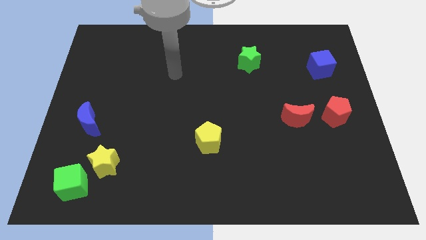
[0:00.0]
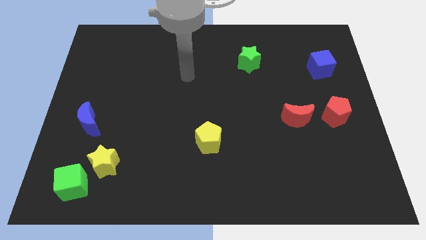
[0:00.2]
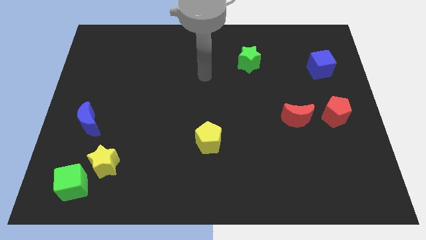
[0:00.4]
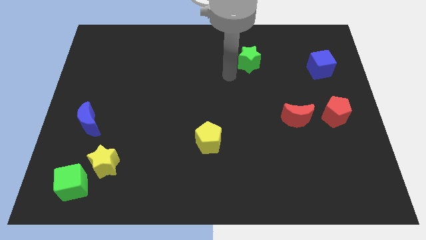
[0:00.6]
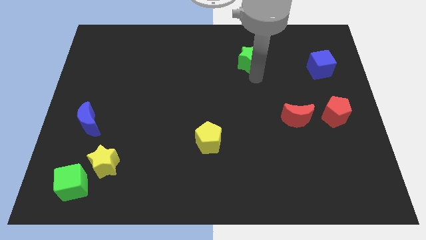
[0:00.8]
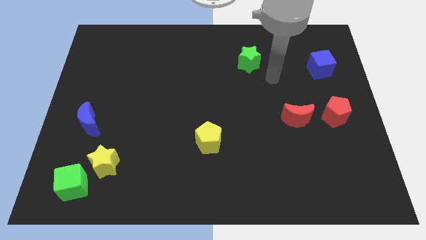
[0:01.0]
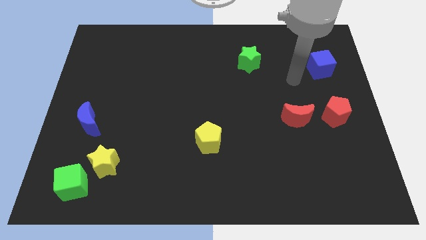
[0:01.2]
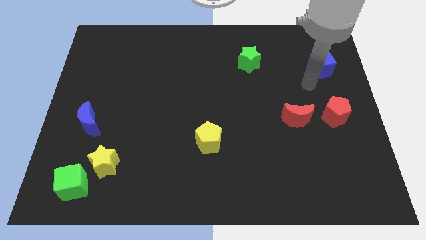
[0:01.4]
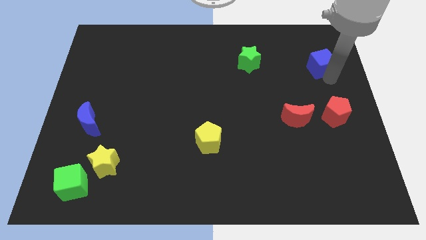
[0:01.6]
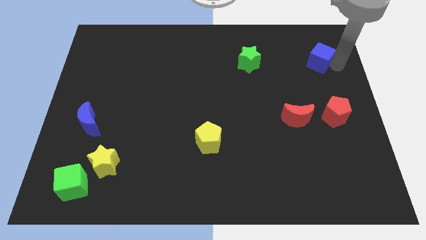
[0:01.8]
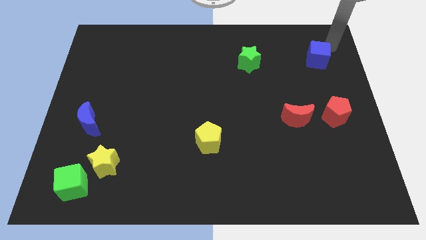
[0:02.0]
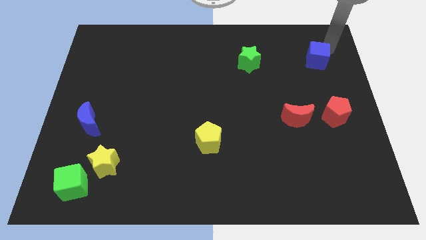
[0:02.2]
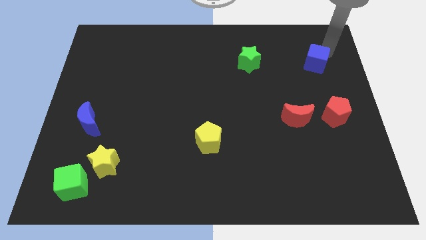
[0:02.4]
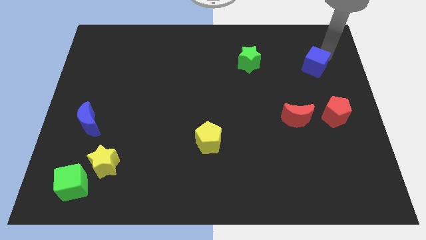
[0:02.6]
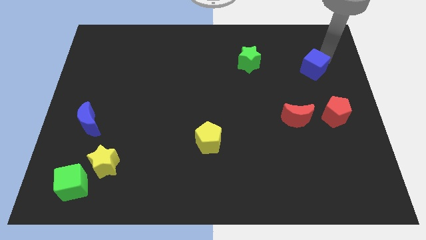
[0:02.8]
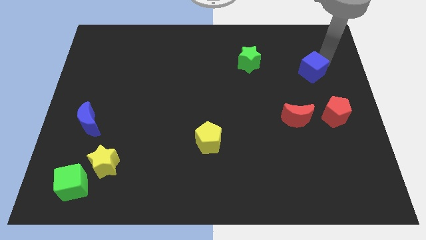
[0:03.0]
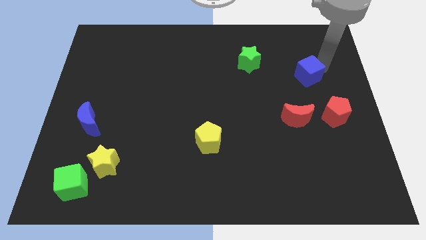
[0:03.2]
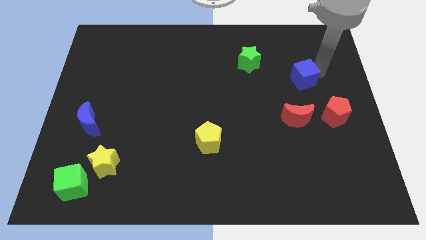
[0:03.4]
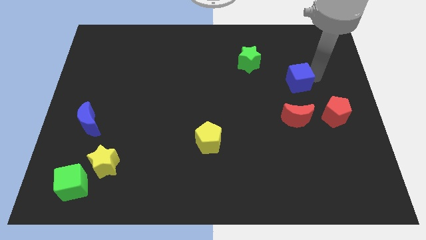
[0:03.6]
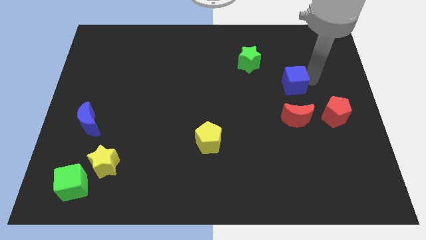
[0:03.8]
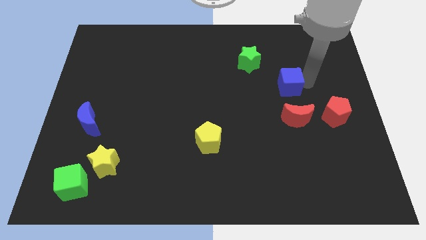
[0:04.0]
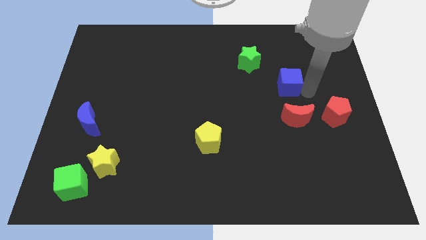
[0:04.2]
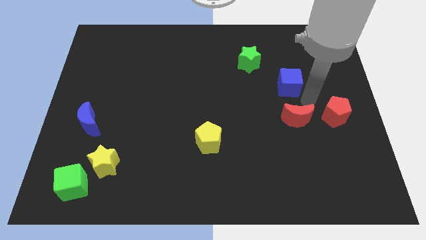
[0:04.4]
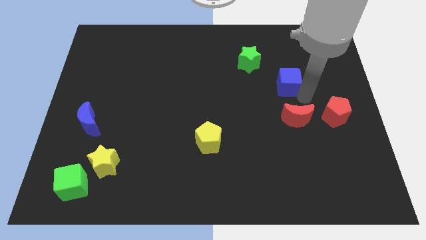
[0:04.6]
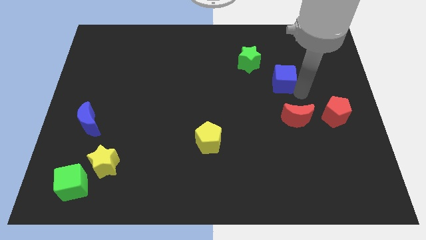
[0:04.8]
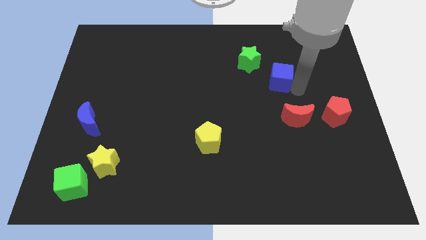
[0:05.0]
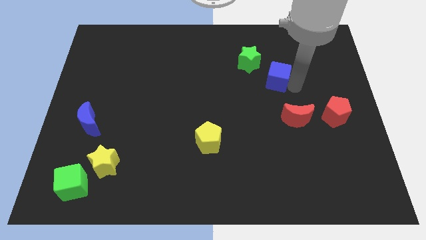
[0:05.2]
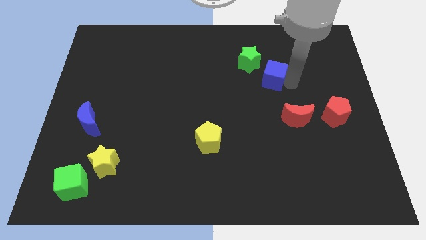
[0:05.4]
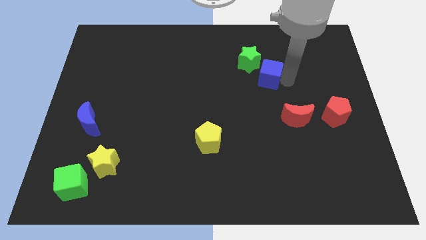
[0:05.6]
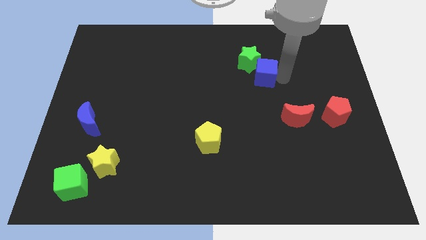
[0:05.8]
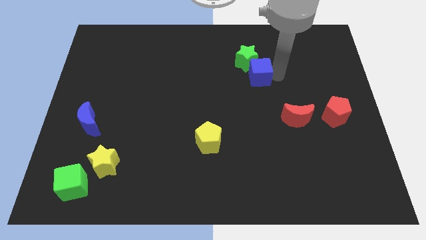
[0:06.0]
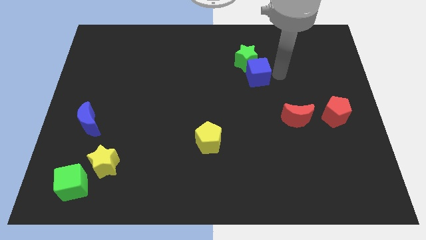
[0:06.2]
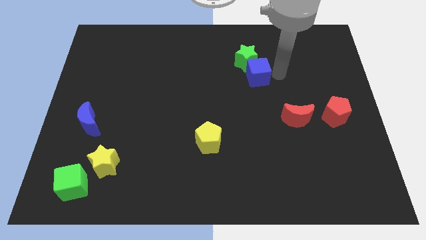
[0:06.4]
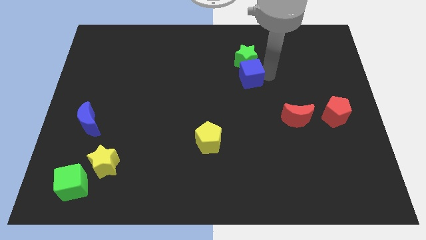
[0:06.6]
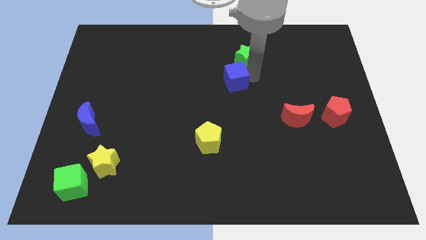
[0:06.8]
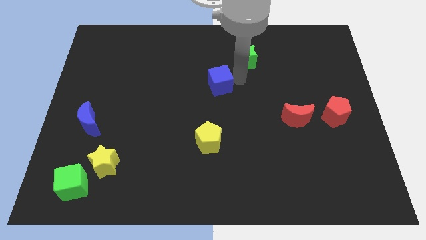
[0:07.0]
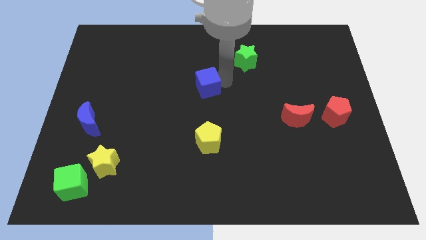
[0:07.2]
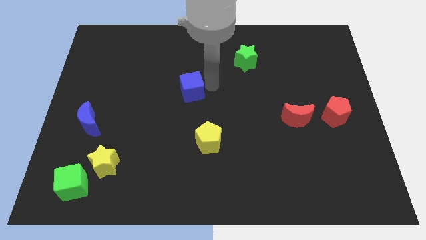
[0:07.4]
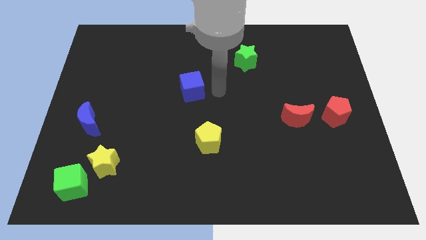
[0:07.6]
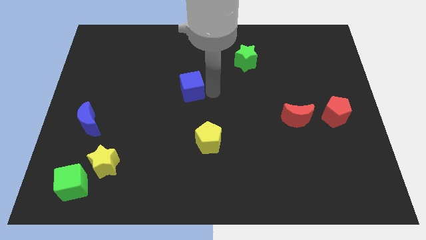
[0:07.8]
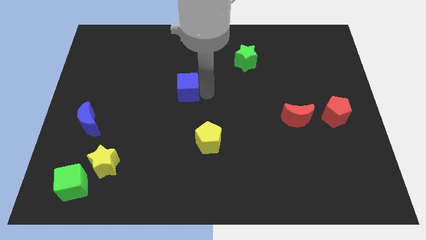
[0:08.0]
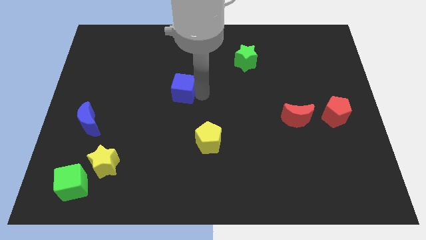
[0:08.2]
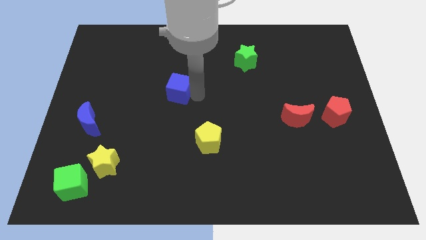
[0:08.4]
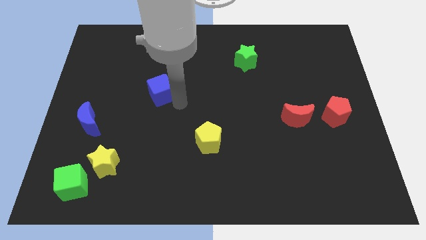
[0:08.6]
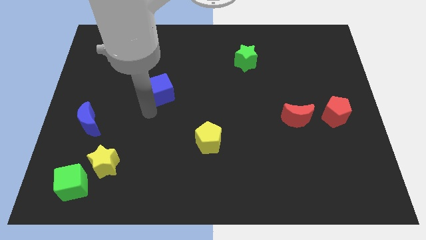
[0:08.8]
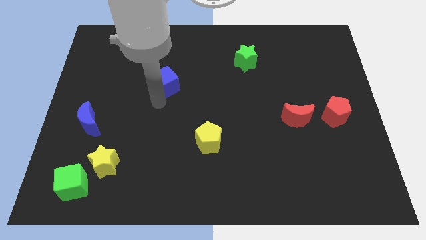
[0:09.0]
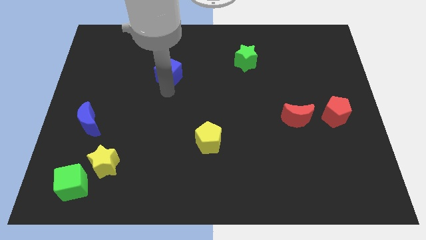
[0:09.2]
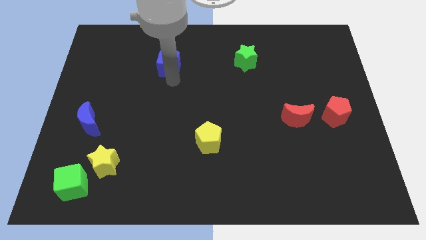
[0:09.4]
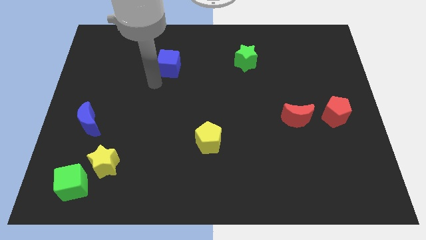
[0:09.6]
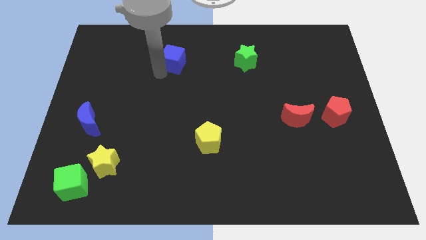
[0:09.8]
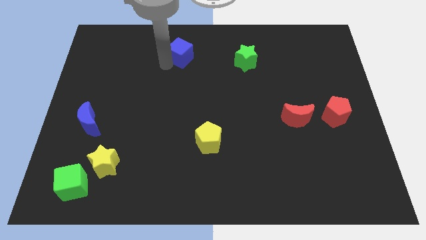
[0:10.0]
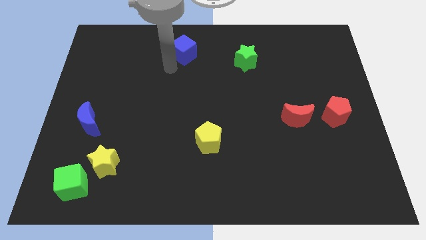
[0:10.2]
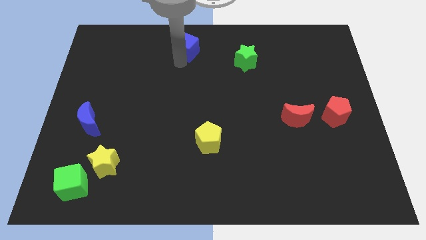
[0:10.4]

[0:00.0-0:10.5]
move the blue cube to the towards your base

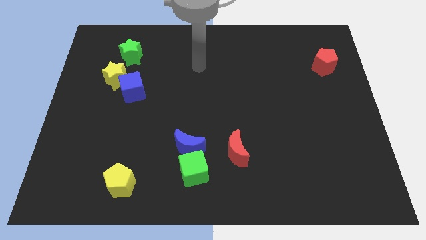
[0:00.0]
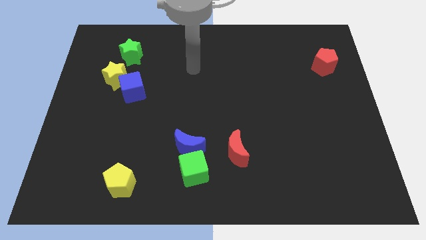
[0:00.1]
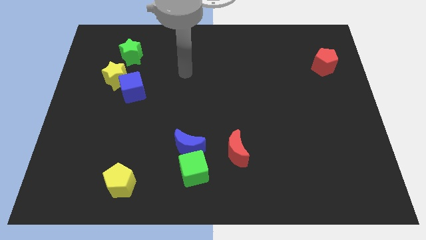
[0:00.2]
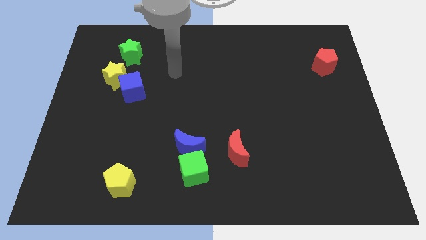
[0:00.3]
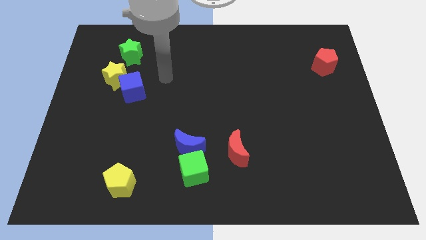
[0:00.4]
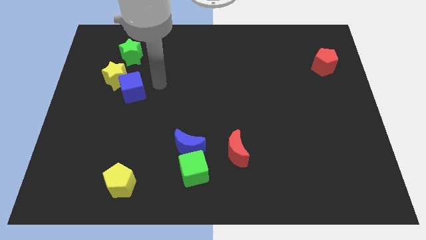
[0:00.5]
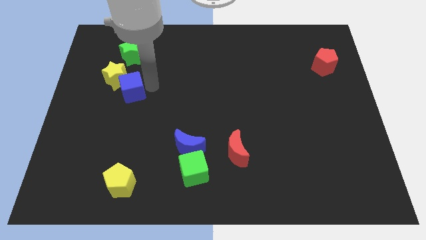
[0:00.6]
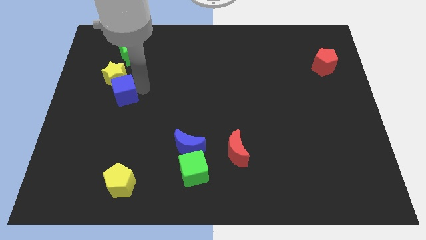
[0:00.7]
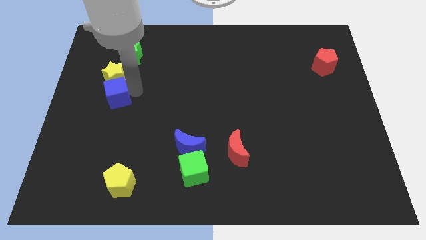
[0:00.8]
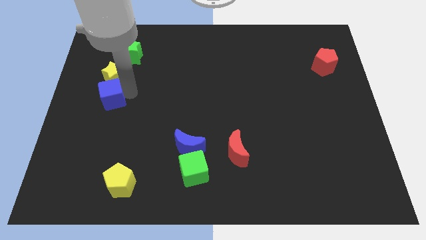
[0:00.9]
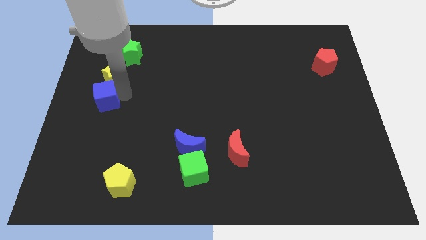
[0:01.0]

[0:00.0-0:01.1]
move the blue cube to the left side of the board
